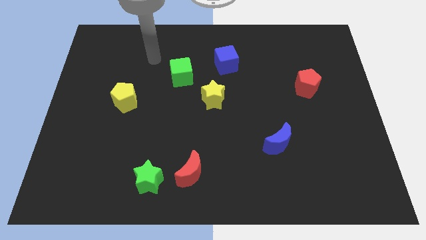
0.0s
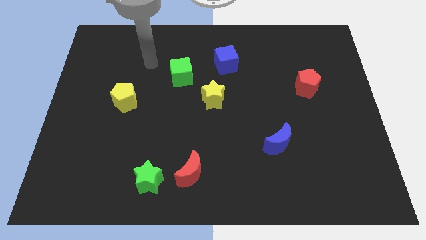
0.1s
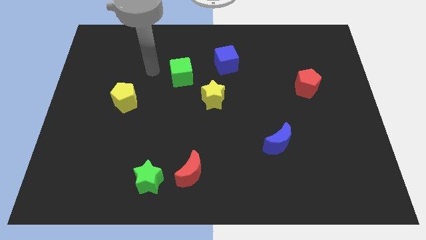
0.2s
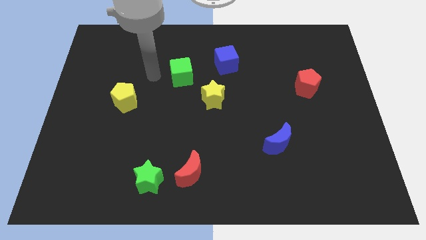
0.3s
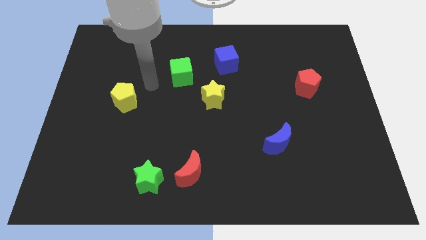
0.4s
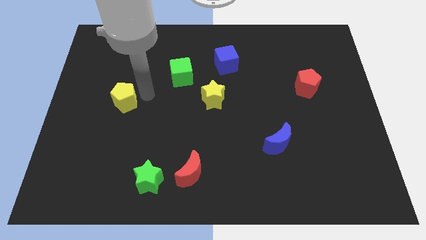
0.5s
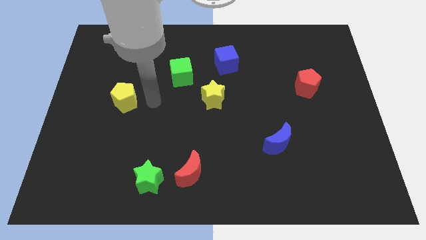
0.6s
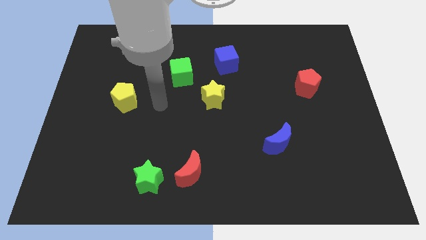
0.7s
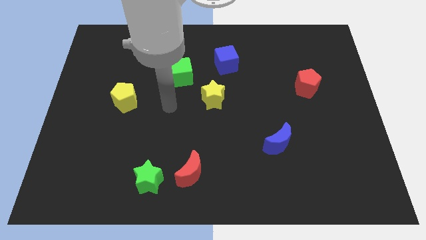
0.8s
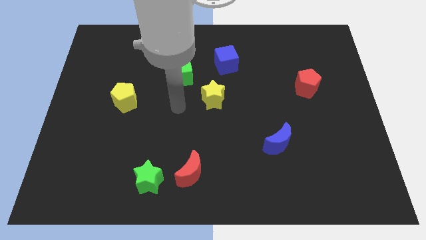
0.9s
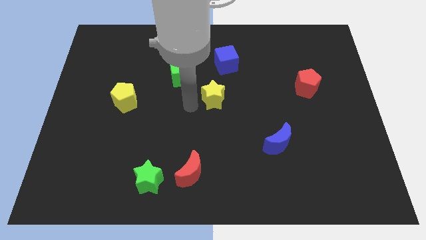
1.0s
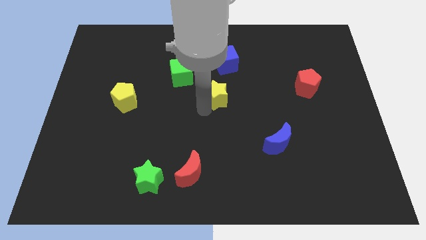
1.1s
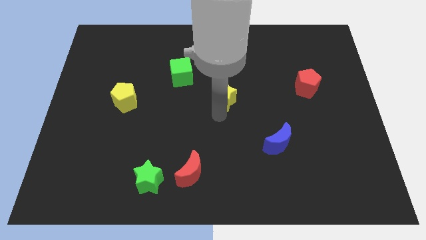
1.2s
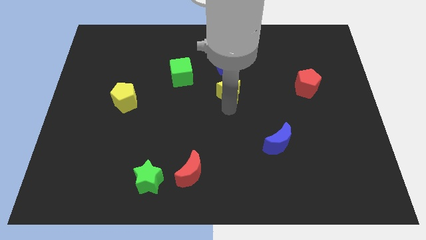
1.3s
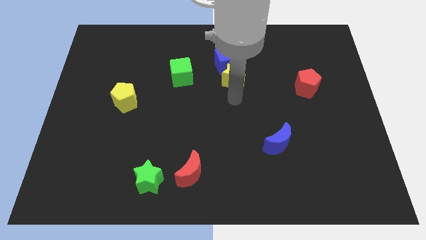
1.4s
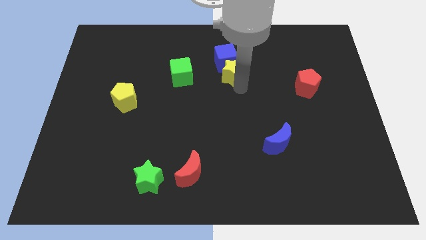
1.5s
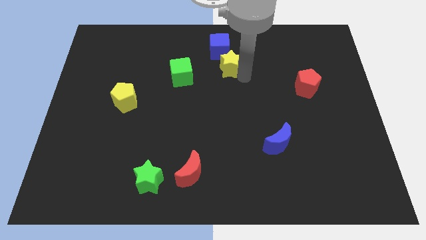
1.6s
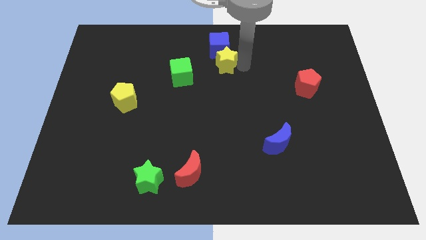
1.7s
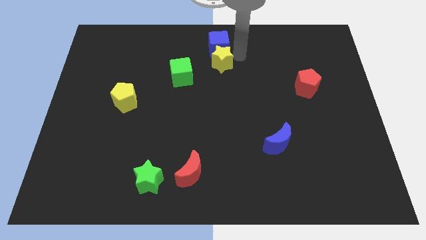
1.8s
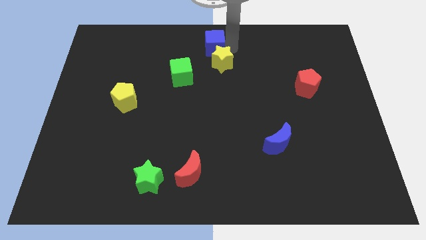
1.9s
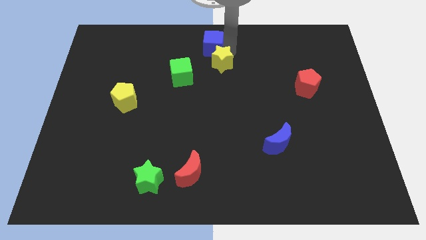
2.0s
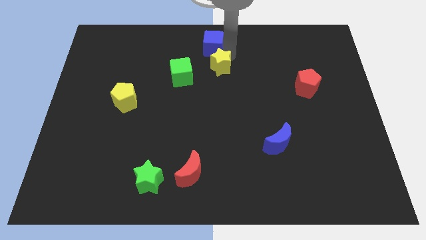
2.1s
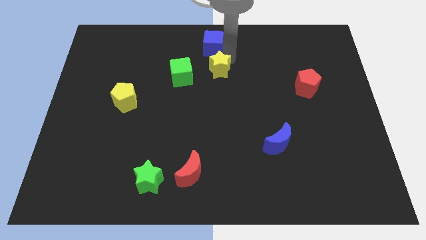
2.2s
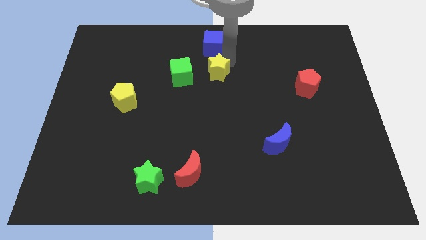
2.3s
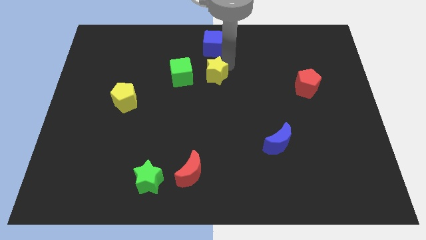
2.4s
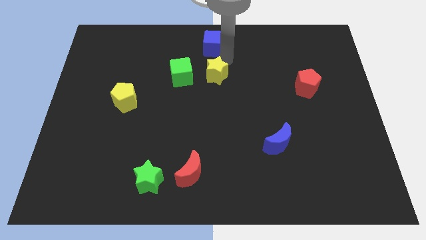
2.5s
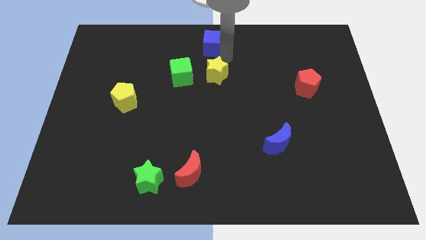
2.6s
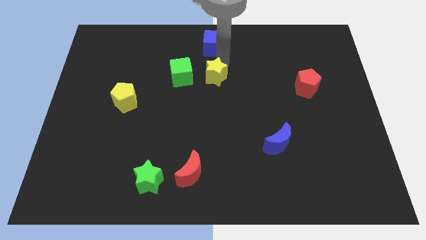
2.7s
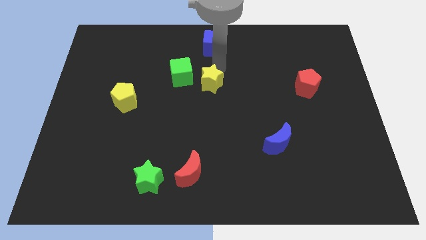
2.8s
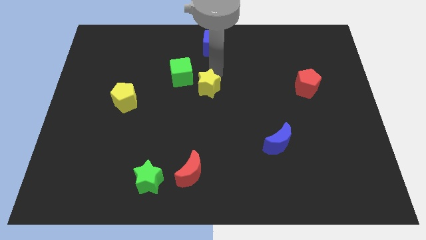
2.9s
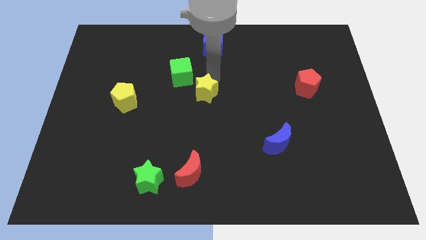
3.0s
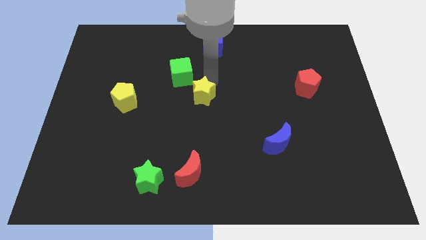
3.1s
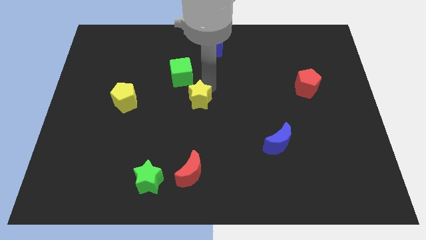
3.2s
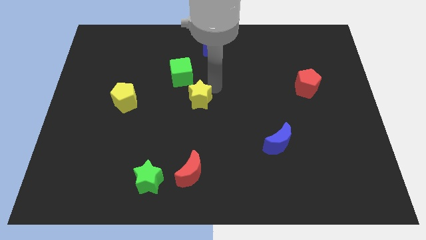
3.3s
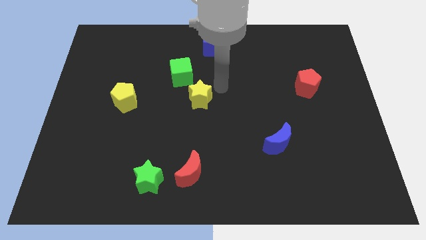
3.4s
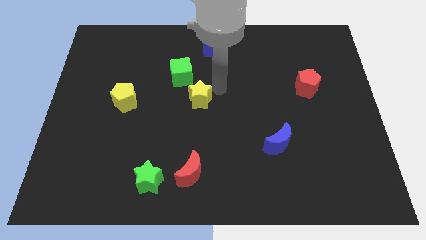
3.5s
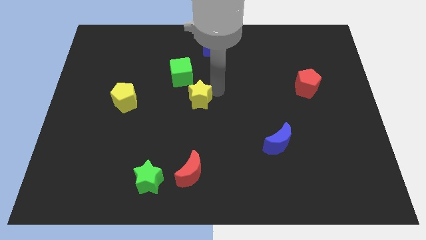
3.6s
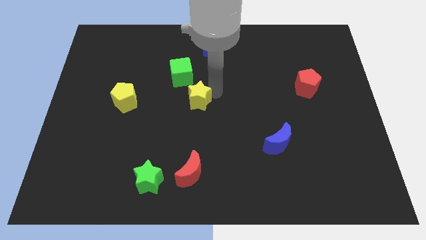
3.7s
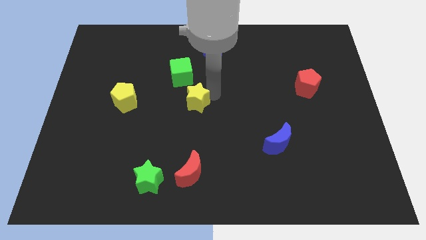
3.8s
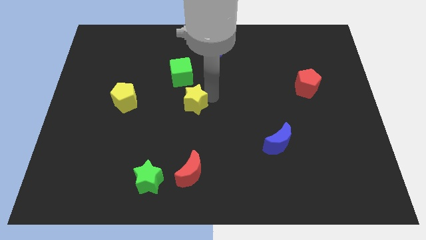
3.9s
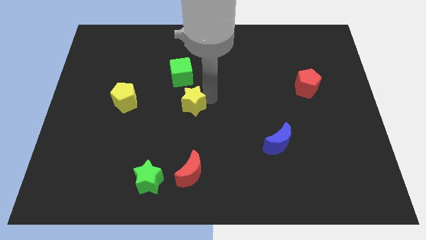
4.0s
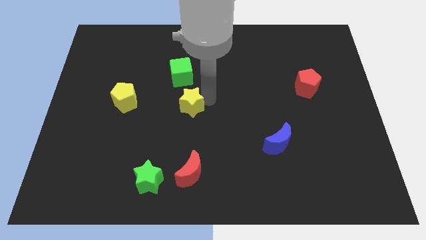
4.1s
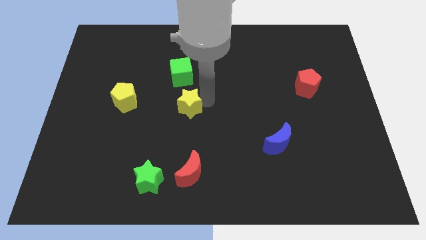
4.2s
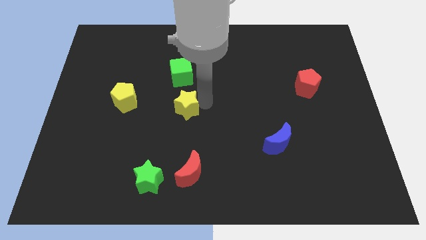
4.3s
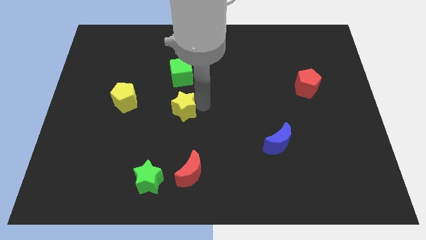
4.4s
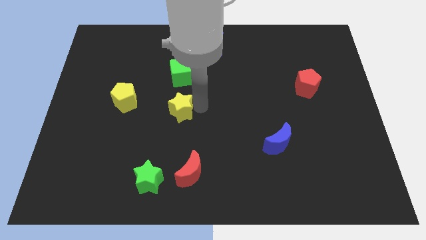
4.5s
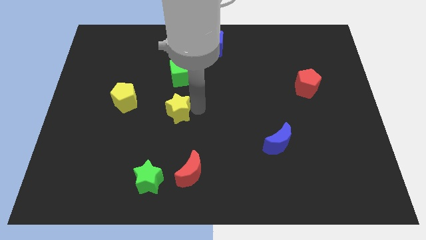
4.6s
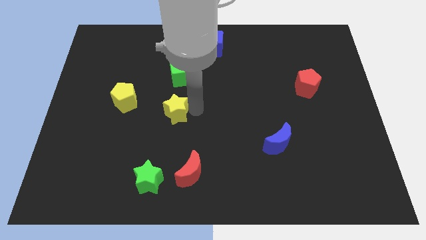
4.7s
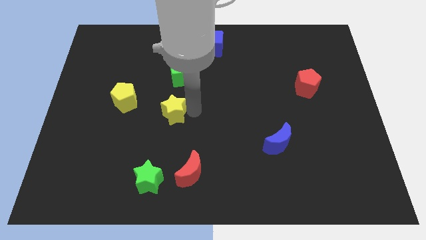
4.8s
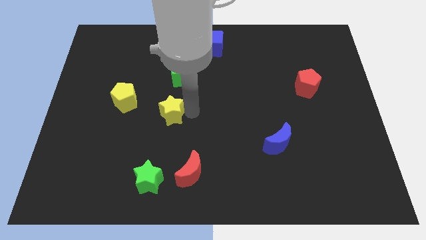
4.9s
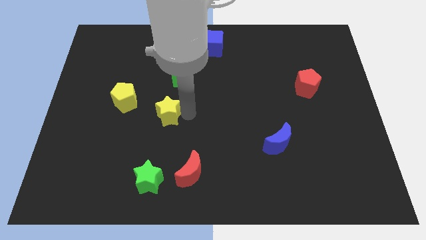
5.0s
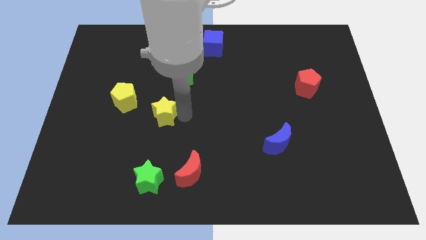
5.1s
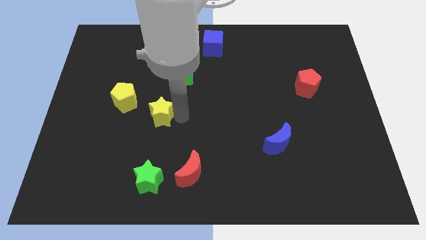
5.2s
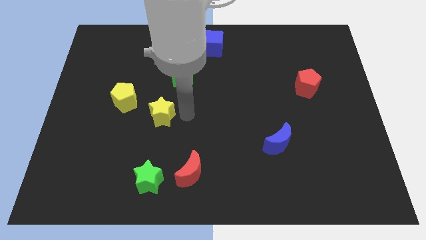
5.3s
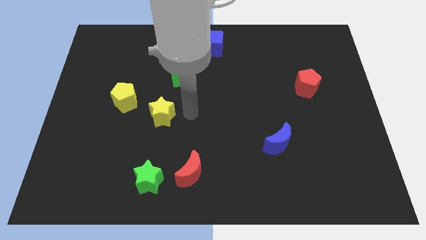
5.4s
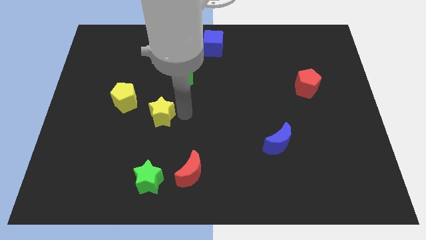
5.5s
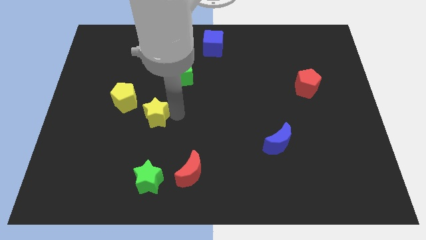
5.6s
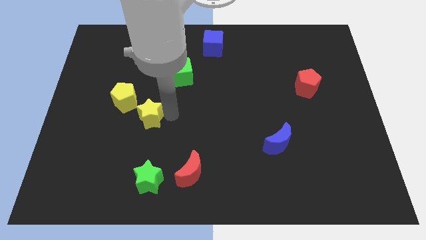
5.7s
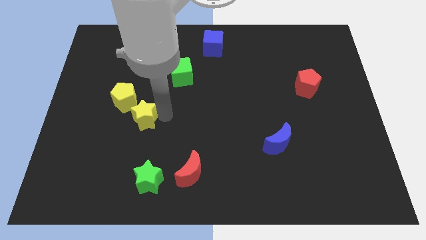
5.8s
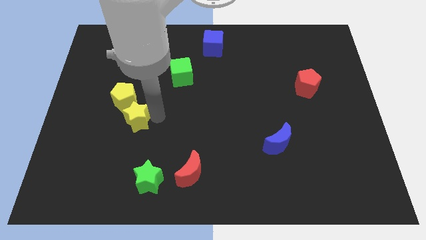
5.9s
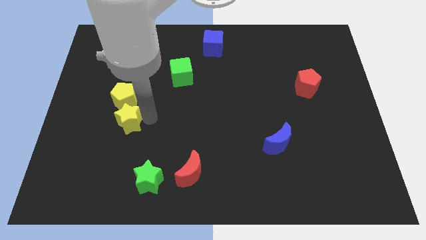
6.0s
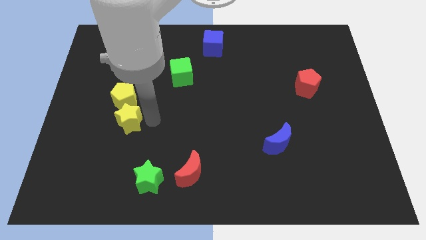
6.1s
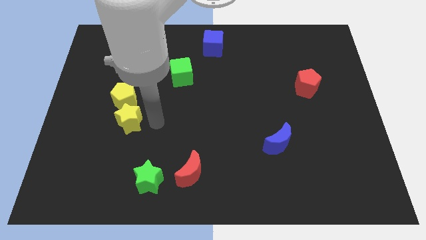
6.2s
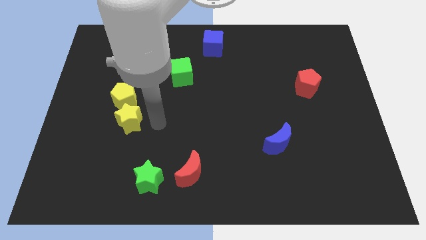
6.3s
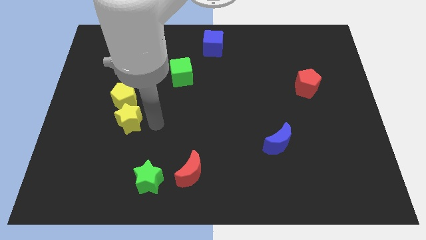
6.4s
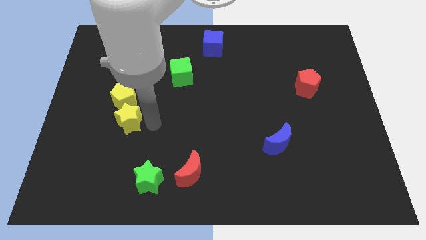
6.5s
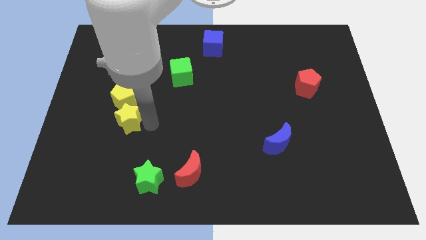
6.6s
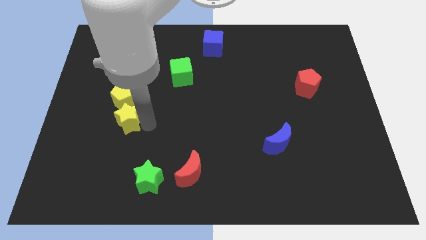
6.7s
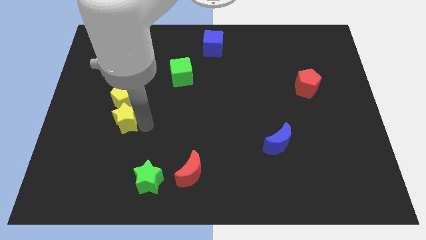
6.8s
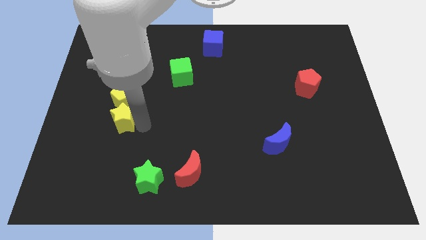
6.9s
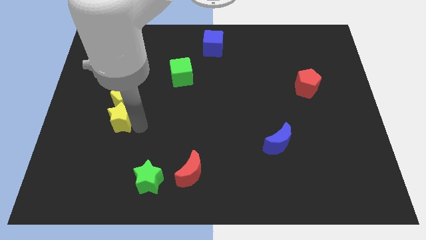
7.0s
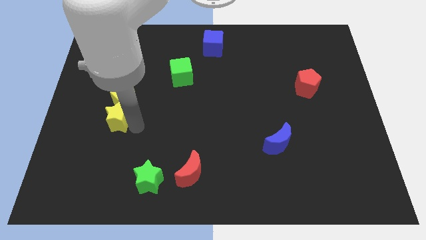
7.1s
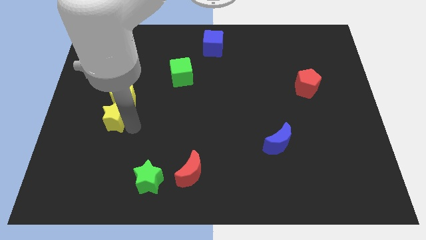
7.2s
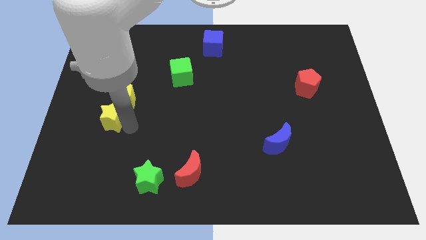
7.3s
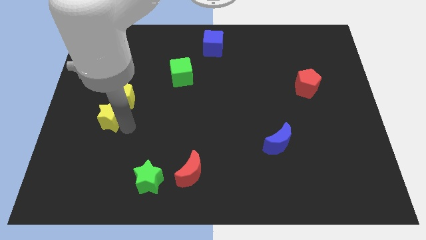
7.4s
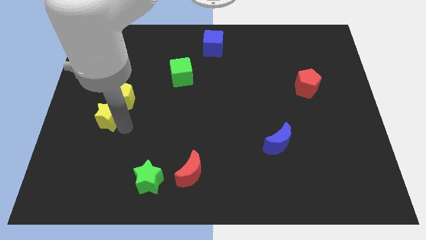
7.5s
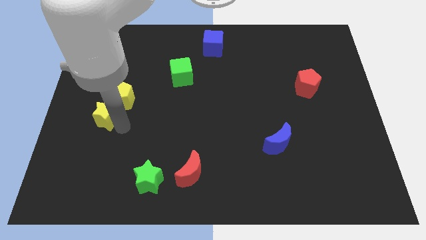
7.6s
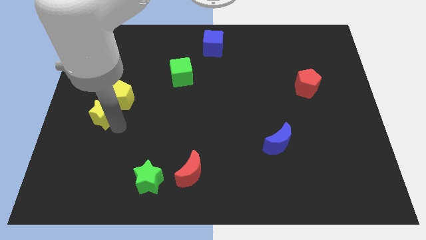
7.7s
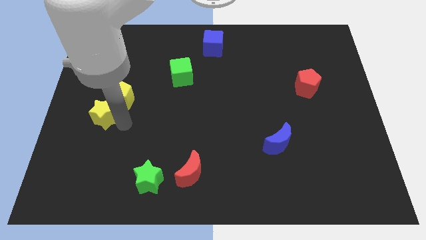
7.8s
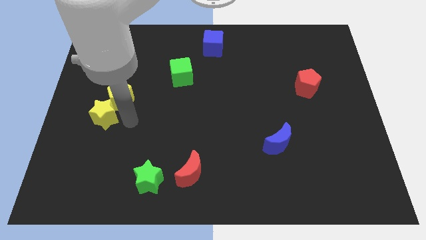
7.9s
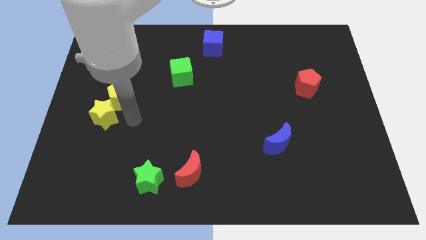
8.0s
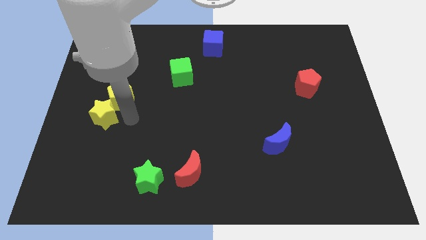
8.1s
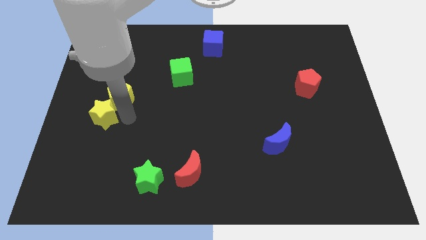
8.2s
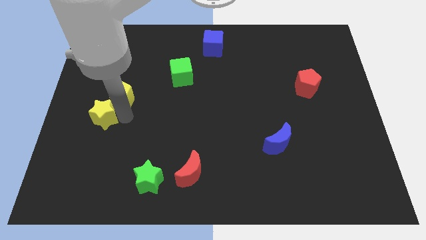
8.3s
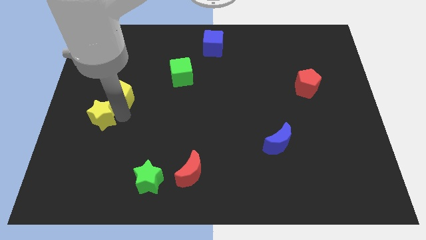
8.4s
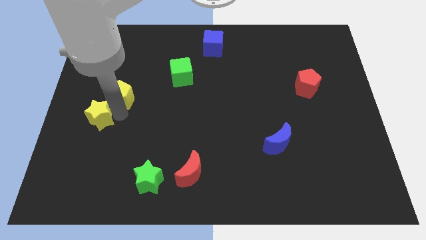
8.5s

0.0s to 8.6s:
slide the yellow star to the center left
